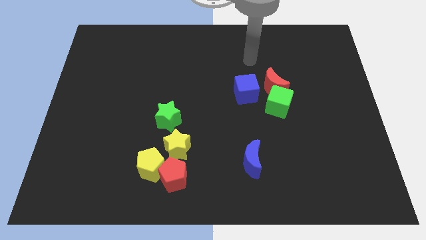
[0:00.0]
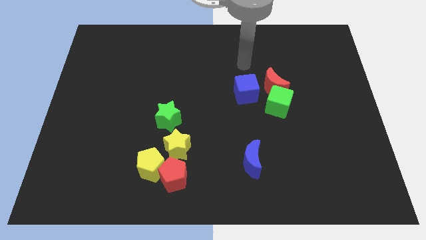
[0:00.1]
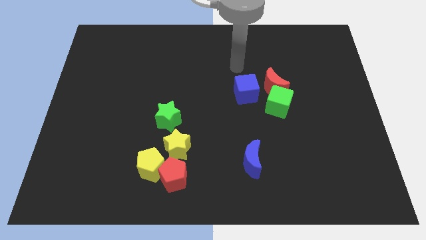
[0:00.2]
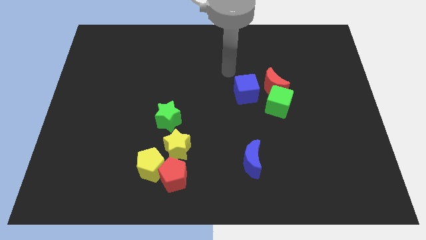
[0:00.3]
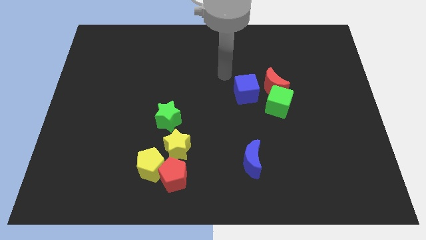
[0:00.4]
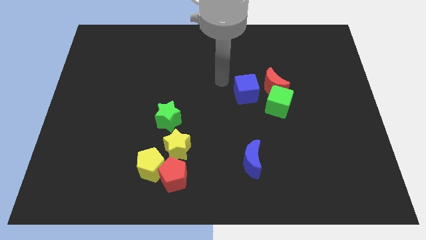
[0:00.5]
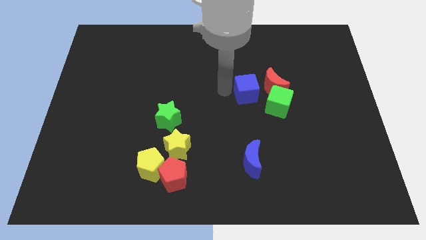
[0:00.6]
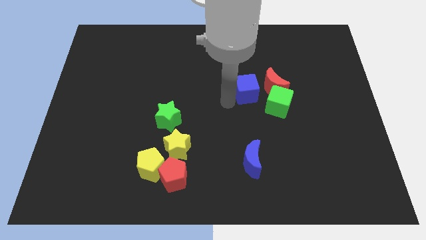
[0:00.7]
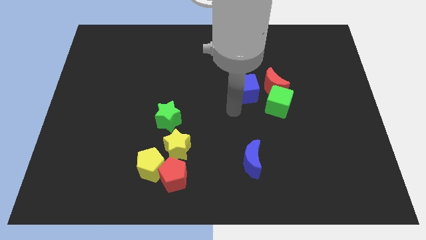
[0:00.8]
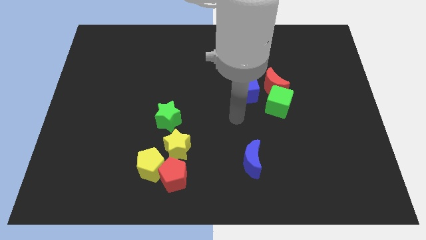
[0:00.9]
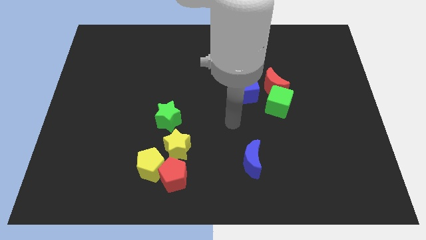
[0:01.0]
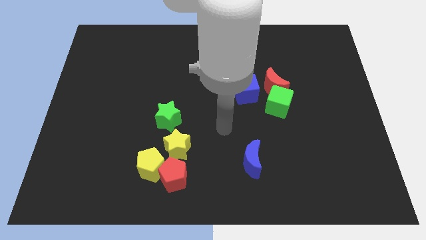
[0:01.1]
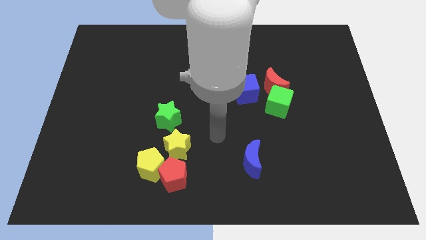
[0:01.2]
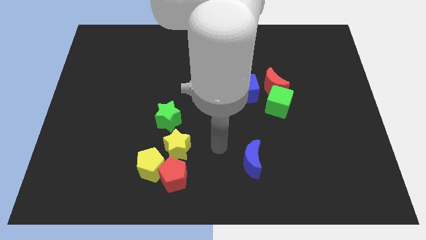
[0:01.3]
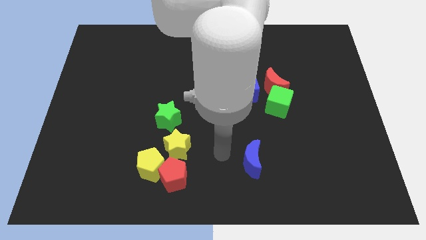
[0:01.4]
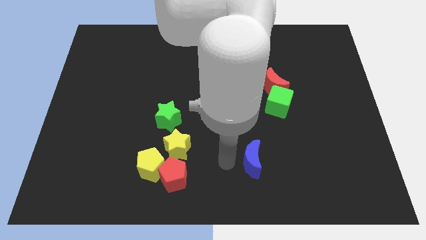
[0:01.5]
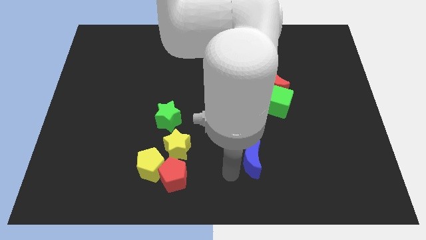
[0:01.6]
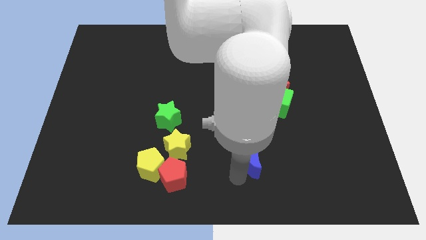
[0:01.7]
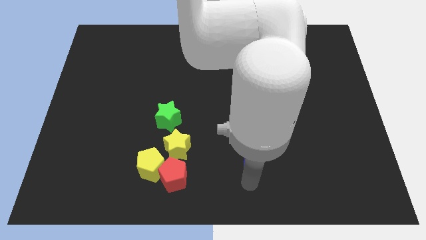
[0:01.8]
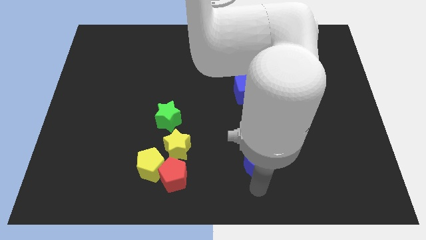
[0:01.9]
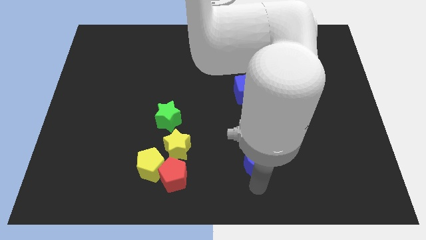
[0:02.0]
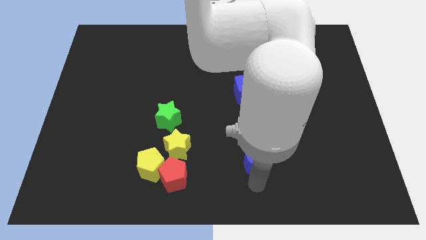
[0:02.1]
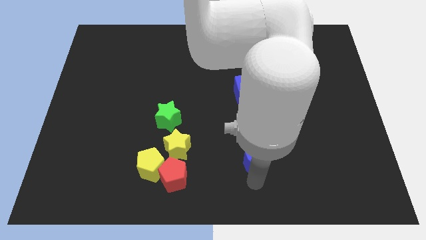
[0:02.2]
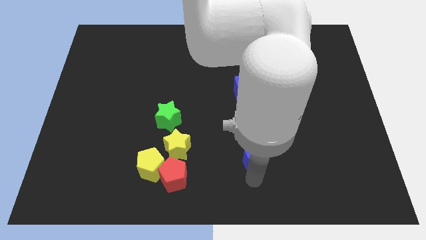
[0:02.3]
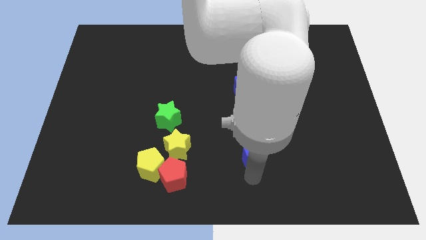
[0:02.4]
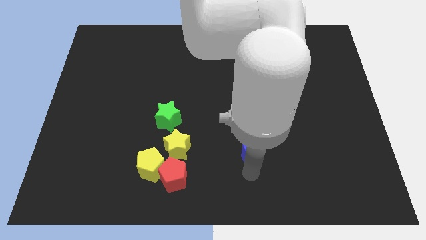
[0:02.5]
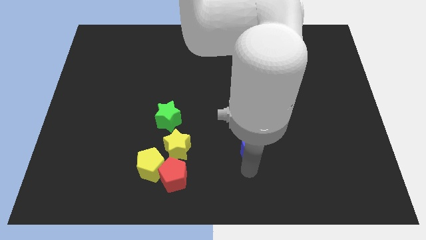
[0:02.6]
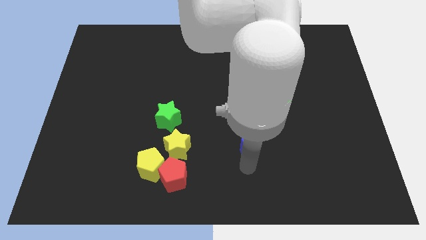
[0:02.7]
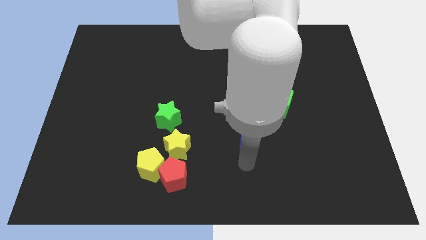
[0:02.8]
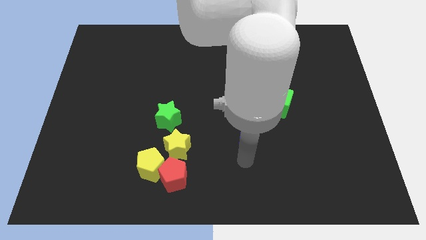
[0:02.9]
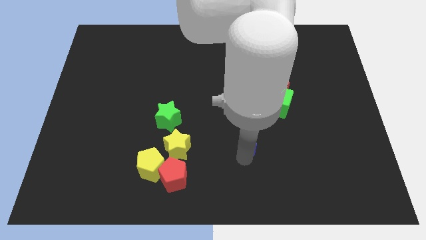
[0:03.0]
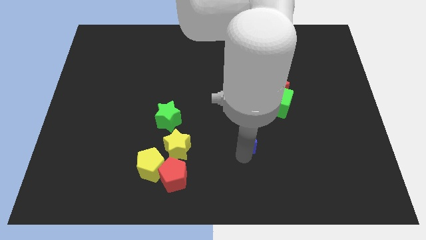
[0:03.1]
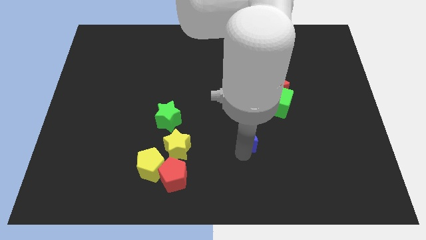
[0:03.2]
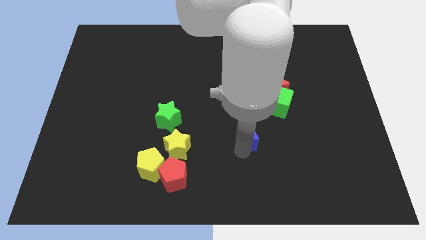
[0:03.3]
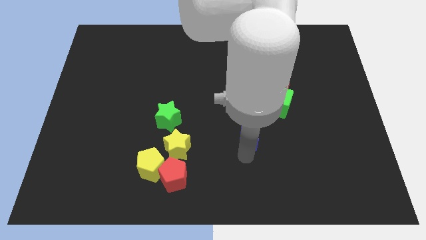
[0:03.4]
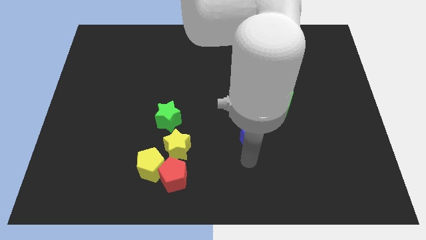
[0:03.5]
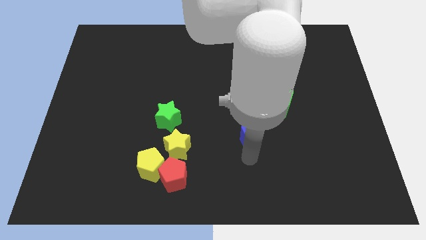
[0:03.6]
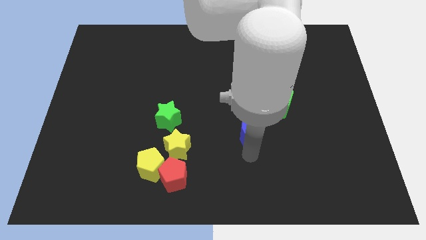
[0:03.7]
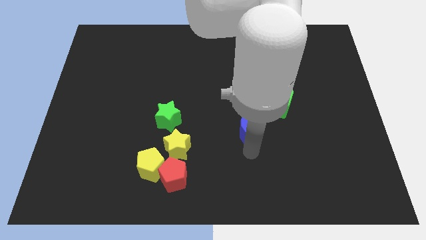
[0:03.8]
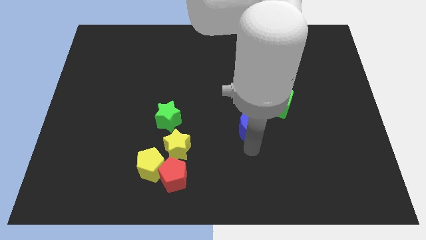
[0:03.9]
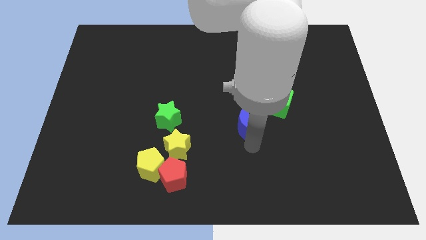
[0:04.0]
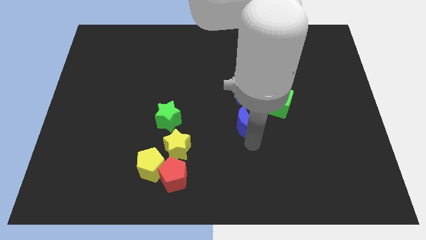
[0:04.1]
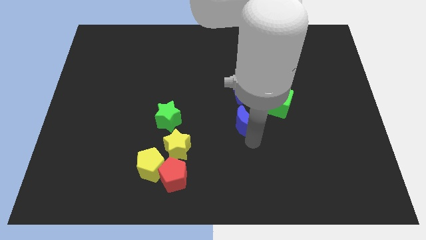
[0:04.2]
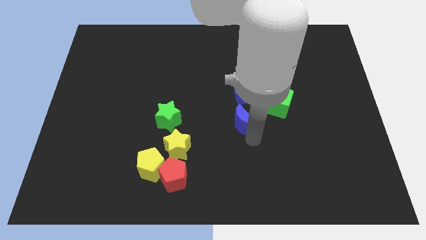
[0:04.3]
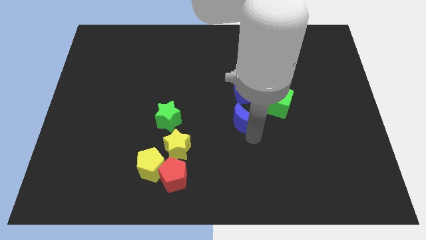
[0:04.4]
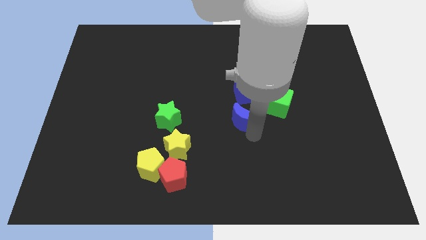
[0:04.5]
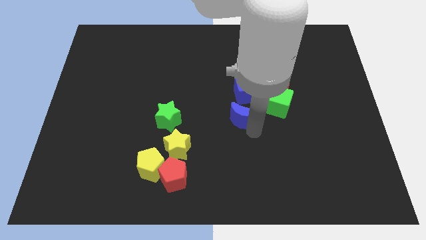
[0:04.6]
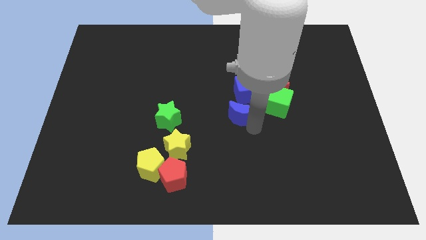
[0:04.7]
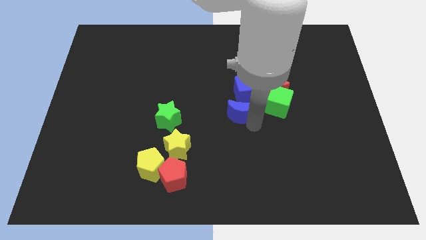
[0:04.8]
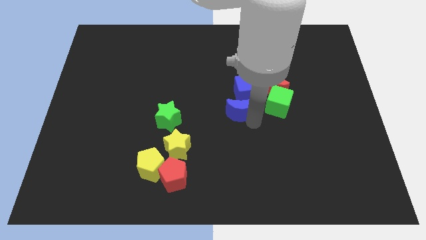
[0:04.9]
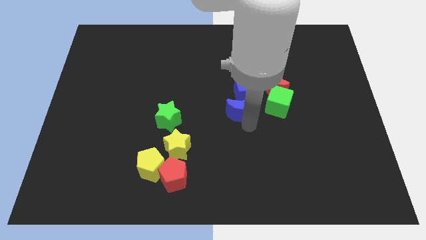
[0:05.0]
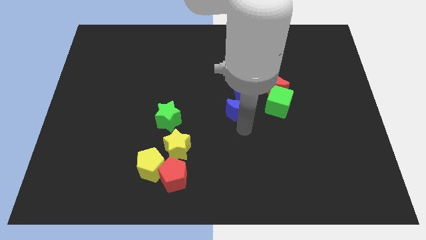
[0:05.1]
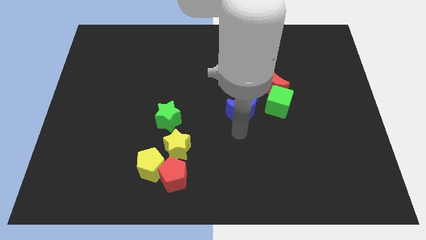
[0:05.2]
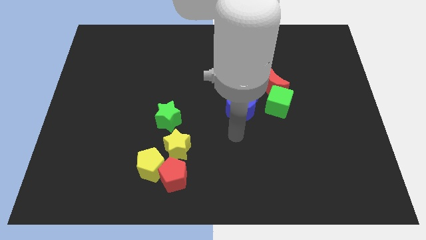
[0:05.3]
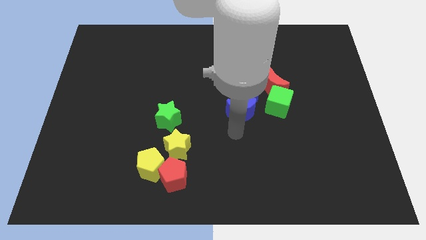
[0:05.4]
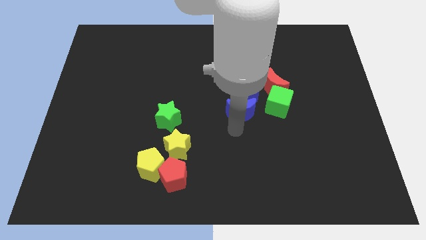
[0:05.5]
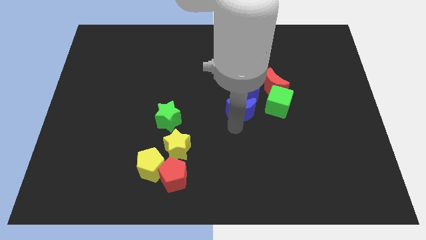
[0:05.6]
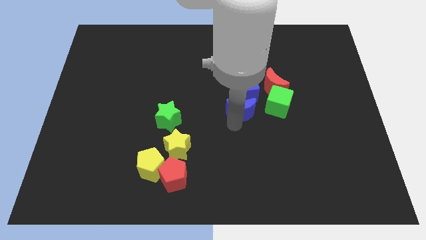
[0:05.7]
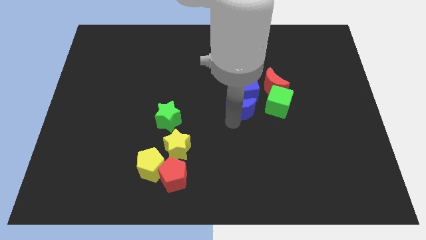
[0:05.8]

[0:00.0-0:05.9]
push the blue moon to the blue cube

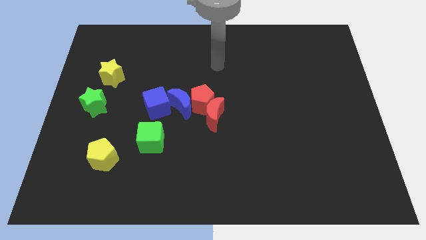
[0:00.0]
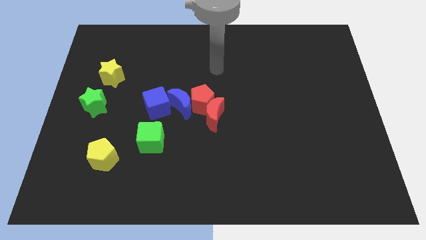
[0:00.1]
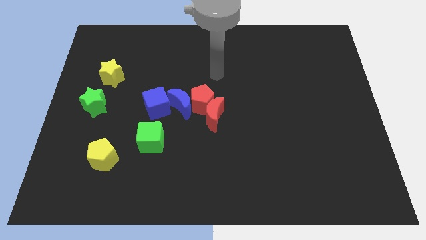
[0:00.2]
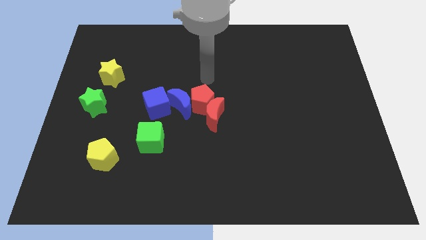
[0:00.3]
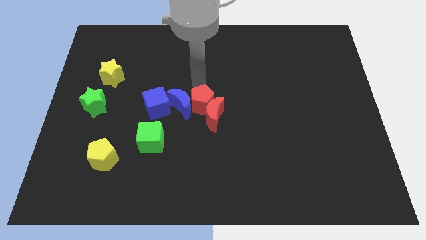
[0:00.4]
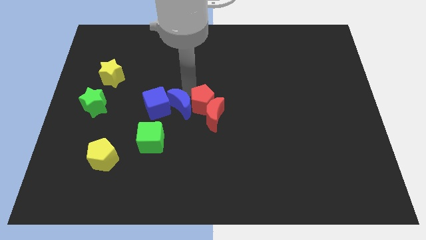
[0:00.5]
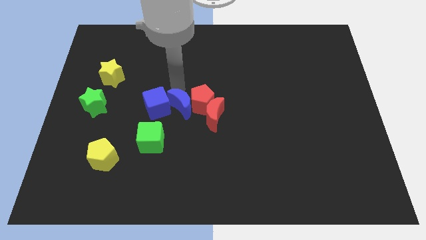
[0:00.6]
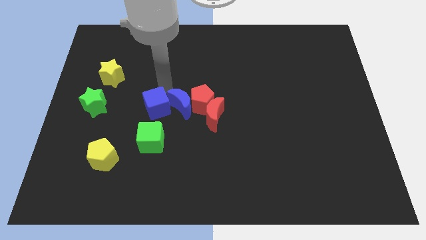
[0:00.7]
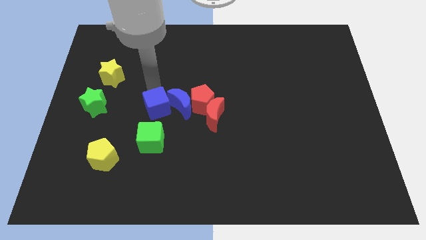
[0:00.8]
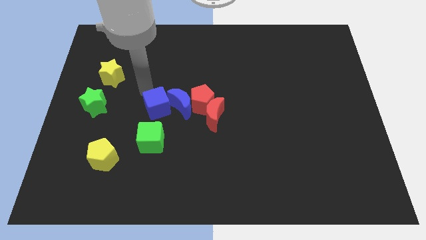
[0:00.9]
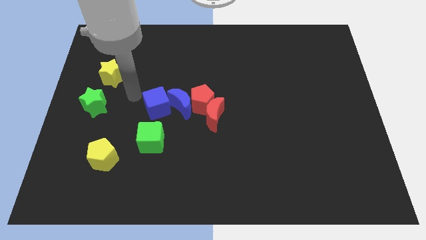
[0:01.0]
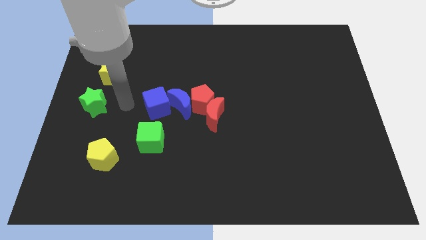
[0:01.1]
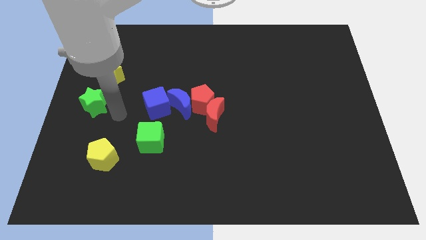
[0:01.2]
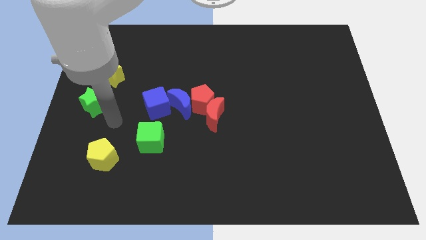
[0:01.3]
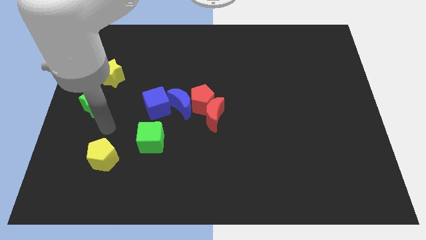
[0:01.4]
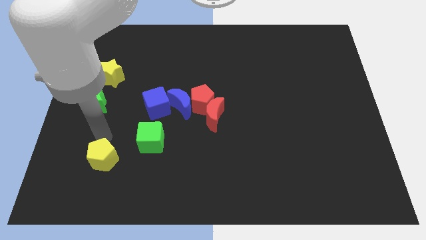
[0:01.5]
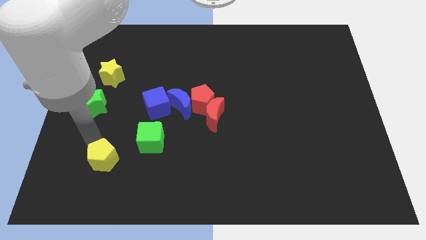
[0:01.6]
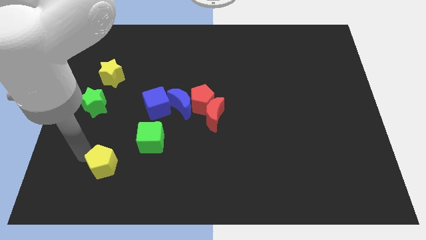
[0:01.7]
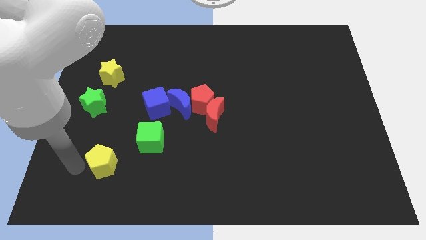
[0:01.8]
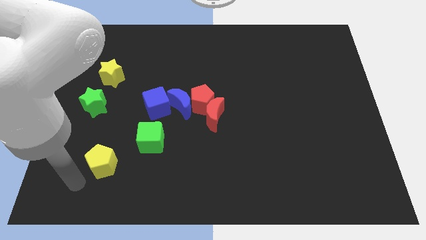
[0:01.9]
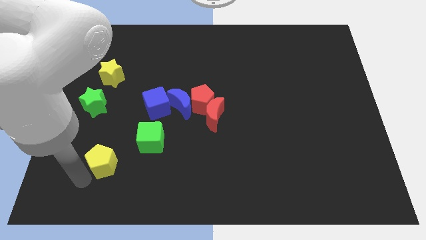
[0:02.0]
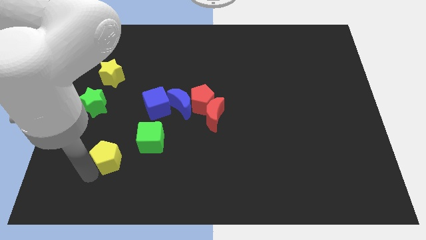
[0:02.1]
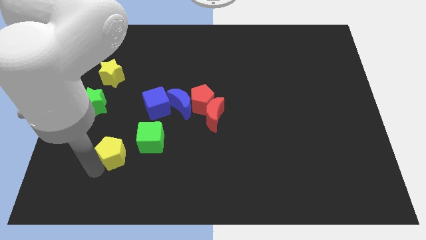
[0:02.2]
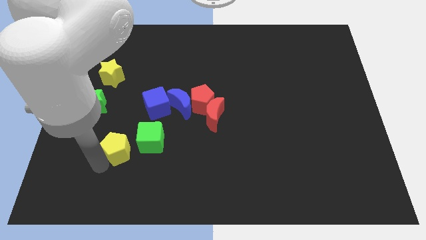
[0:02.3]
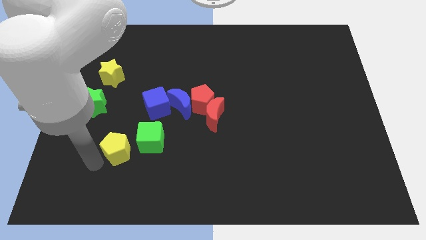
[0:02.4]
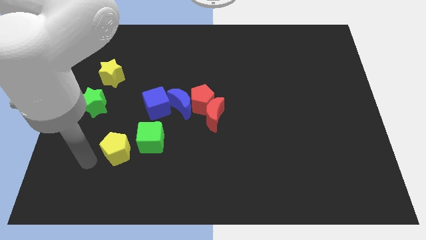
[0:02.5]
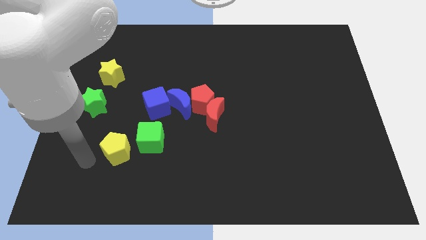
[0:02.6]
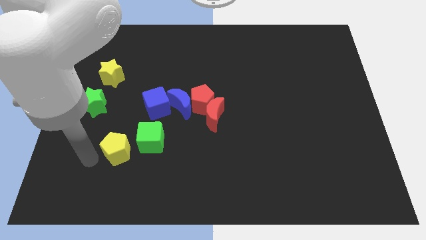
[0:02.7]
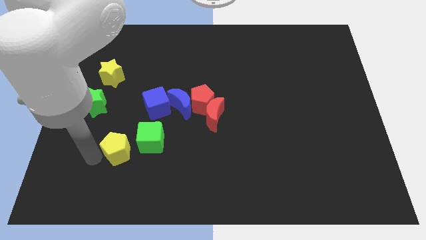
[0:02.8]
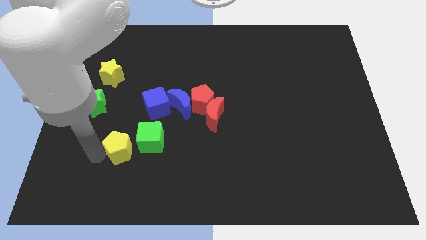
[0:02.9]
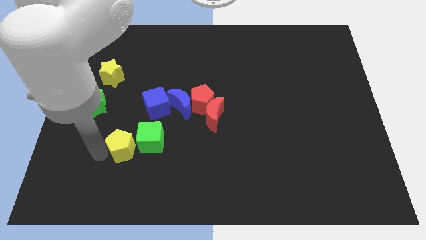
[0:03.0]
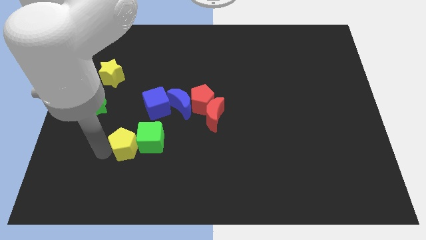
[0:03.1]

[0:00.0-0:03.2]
move the yellow pentagon towards the green cube
